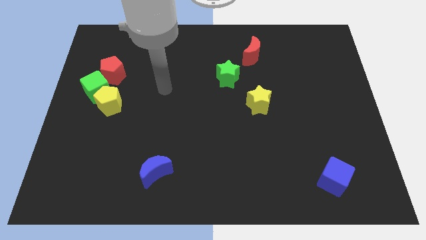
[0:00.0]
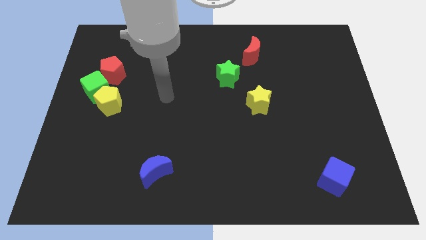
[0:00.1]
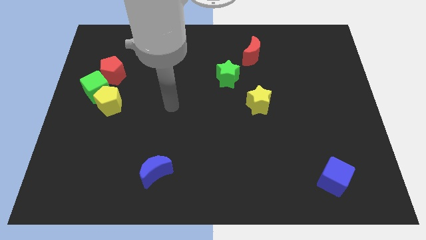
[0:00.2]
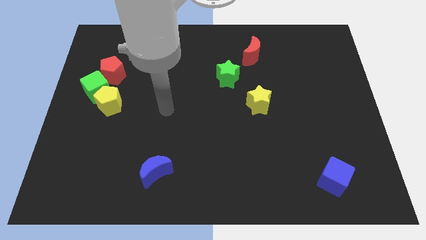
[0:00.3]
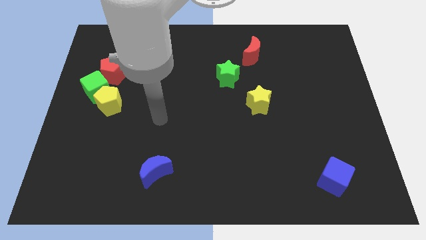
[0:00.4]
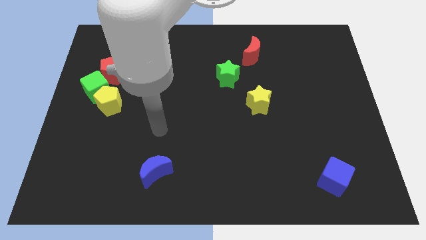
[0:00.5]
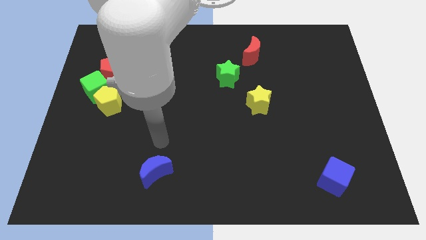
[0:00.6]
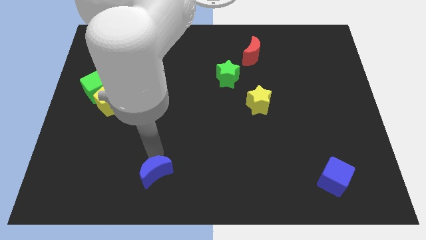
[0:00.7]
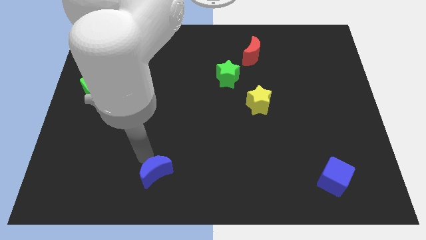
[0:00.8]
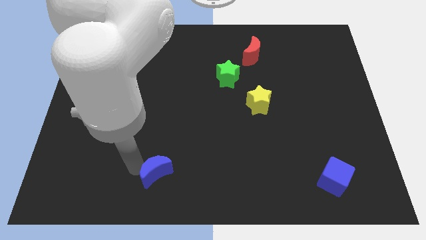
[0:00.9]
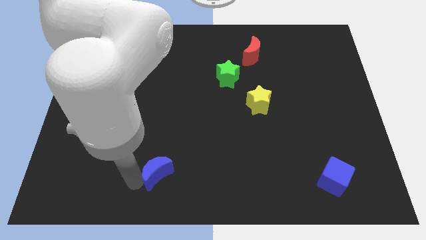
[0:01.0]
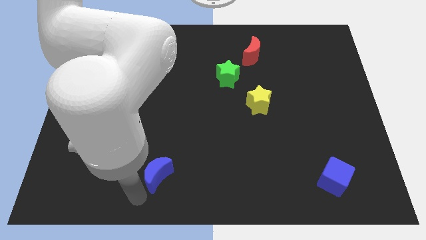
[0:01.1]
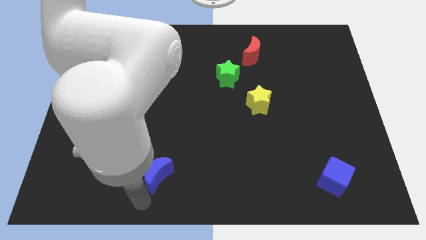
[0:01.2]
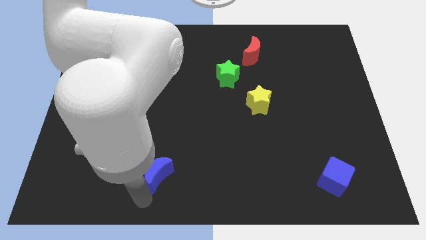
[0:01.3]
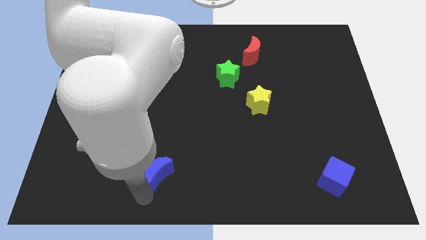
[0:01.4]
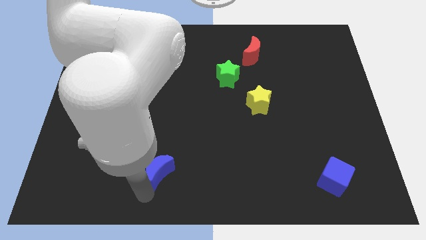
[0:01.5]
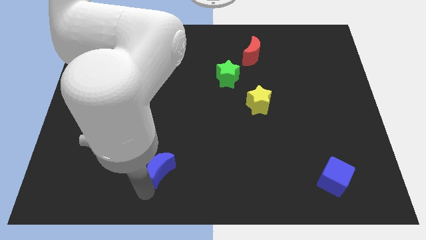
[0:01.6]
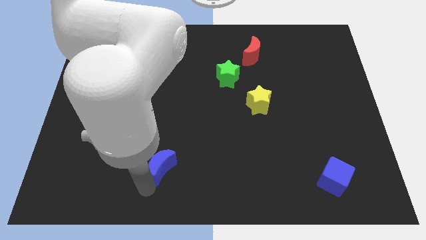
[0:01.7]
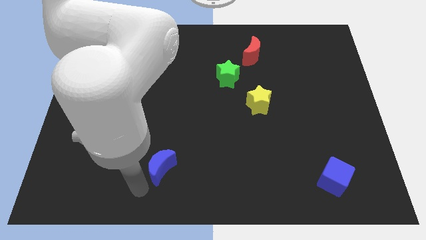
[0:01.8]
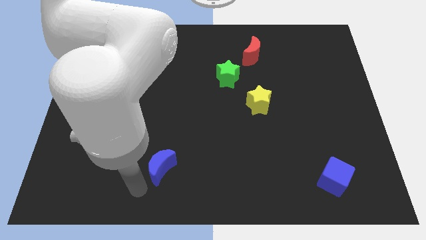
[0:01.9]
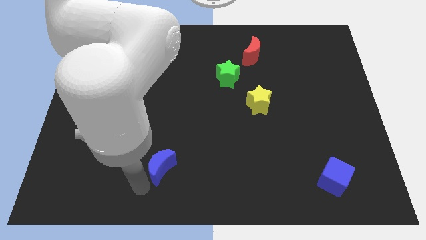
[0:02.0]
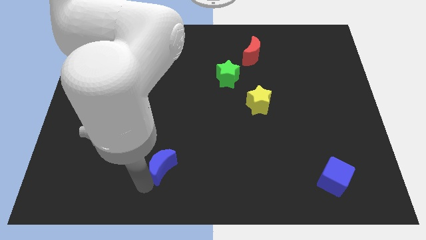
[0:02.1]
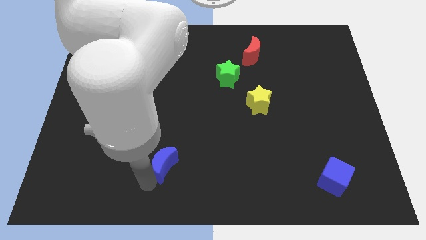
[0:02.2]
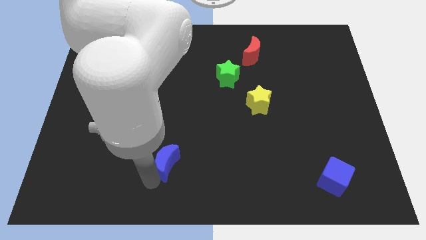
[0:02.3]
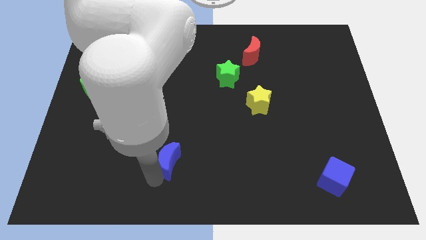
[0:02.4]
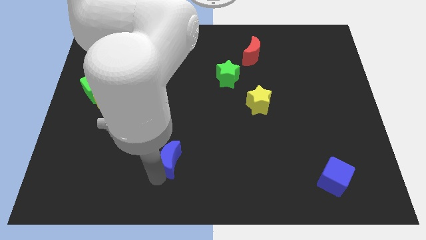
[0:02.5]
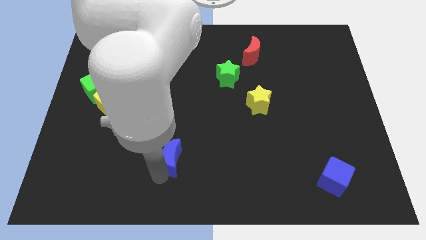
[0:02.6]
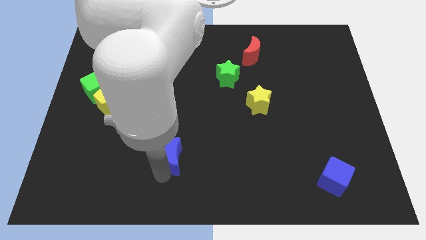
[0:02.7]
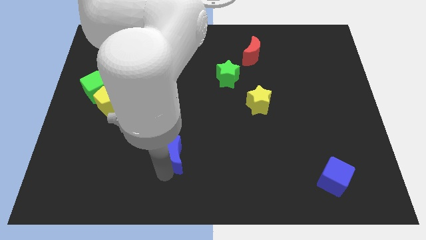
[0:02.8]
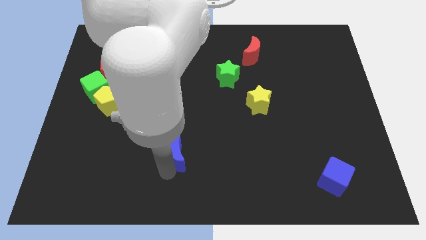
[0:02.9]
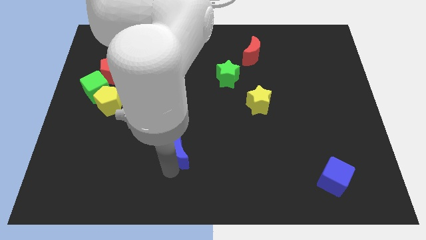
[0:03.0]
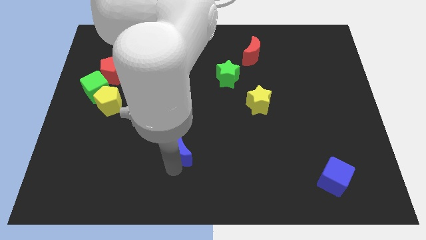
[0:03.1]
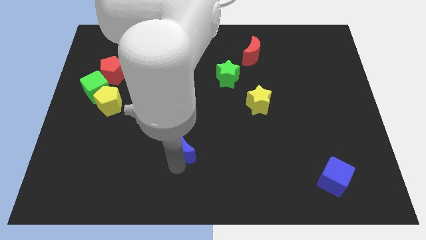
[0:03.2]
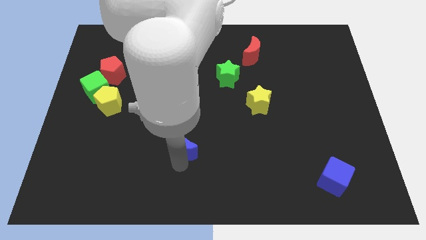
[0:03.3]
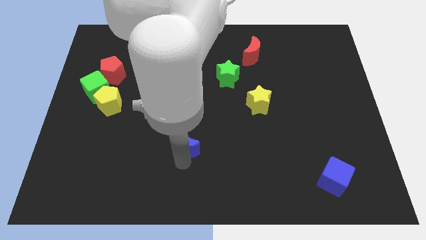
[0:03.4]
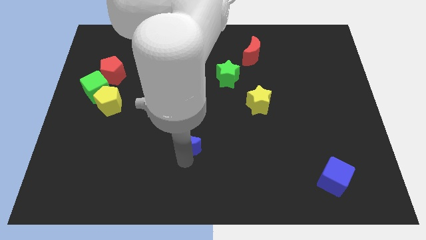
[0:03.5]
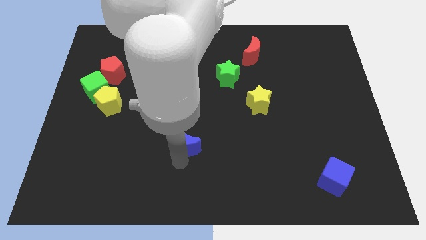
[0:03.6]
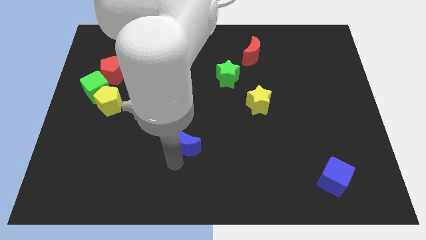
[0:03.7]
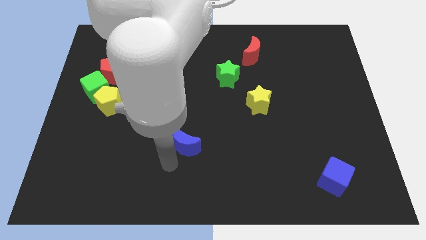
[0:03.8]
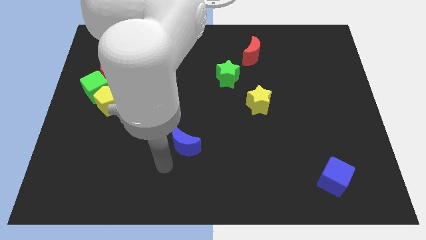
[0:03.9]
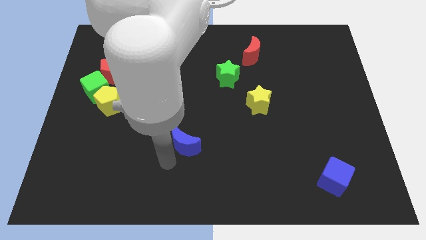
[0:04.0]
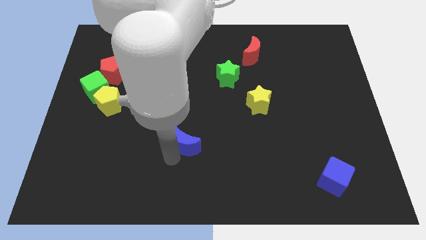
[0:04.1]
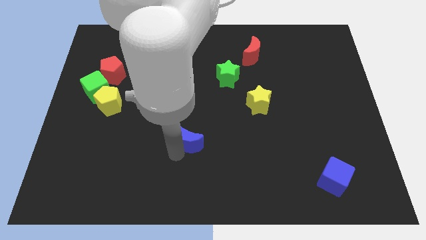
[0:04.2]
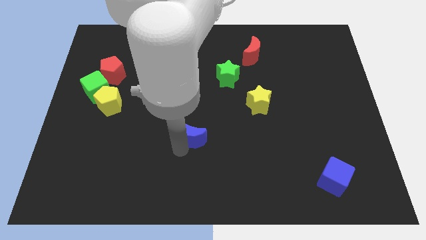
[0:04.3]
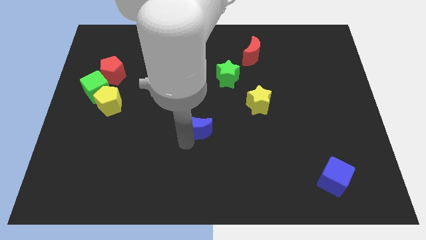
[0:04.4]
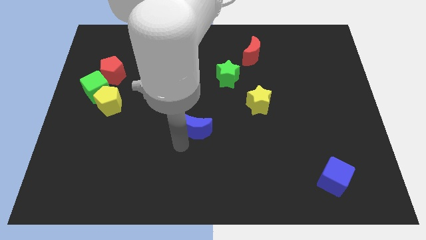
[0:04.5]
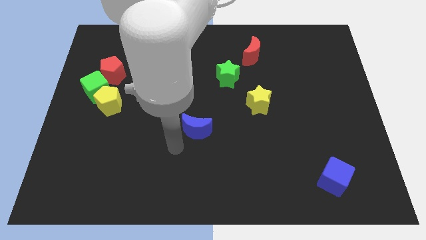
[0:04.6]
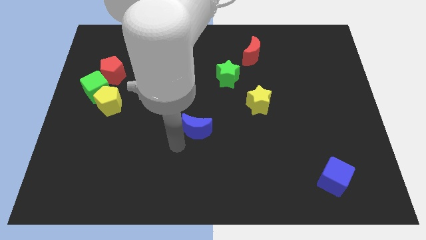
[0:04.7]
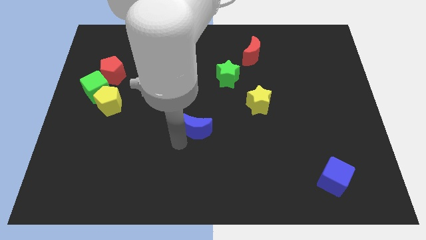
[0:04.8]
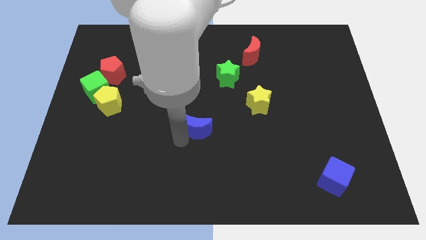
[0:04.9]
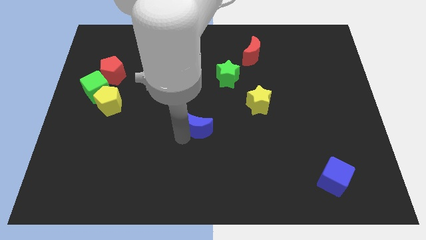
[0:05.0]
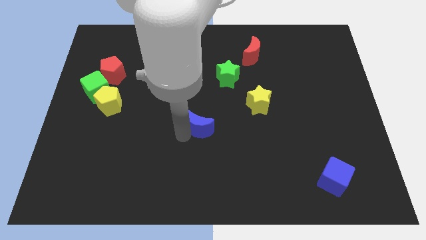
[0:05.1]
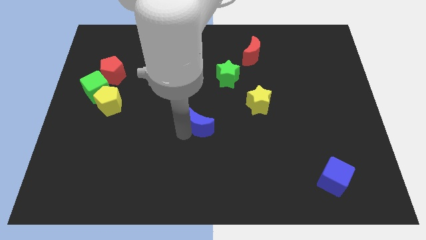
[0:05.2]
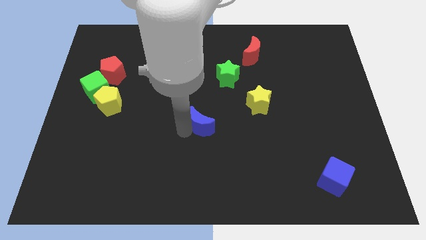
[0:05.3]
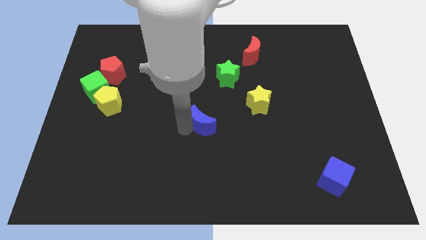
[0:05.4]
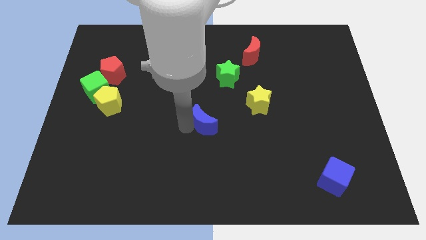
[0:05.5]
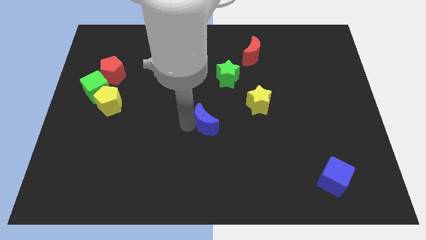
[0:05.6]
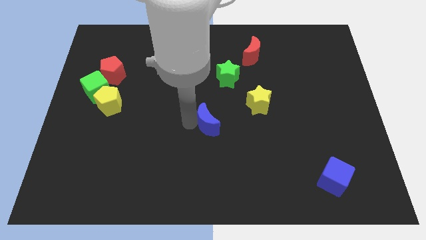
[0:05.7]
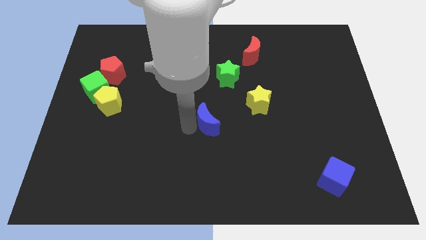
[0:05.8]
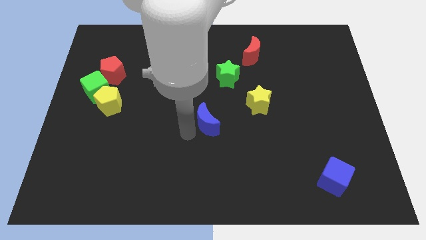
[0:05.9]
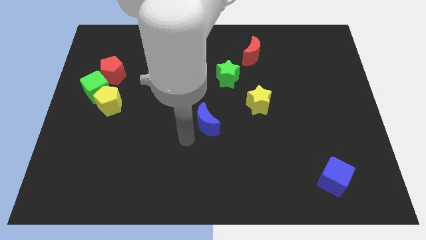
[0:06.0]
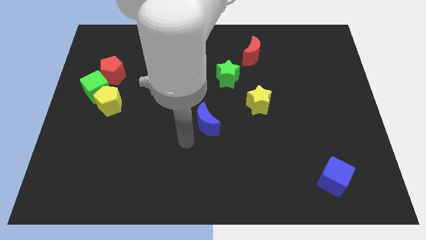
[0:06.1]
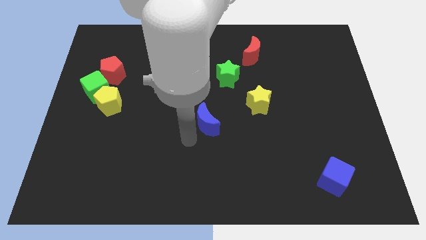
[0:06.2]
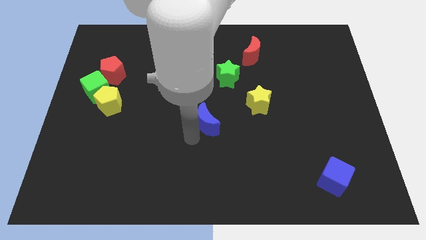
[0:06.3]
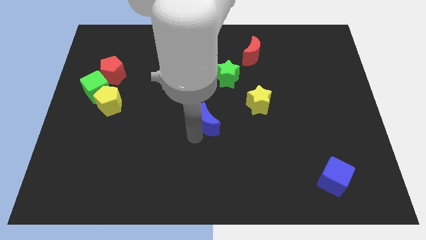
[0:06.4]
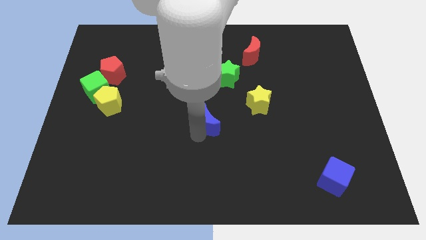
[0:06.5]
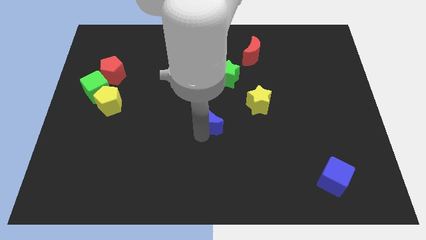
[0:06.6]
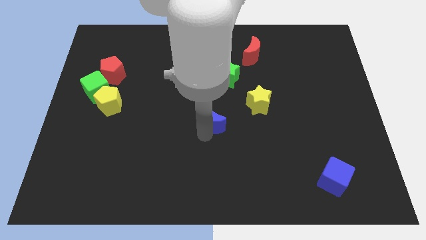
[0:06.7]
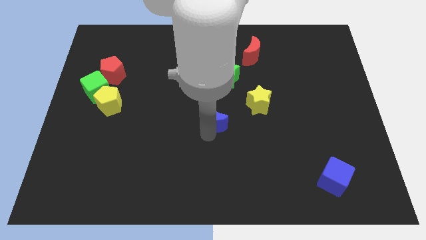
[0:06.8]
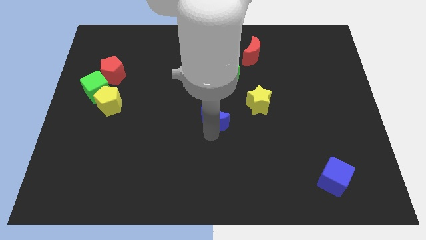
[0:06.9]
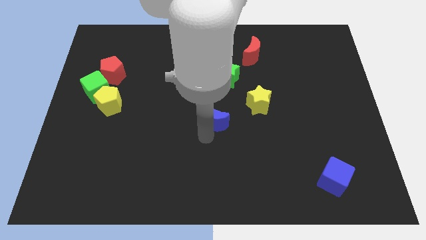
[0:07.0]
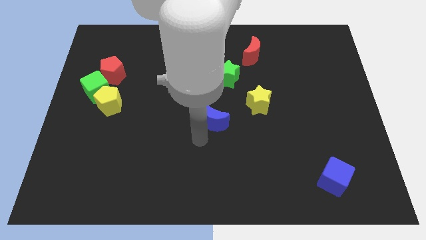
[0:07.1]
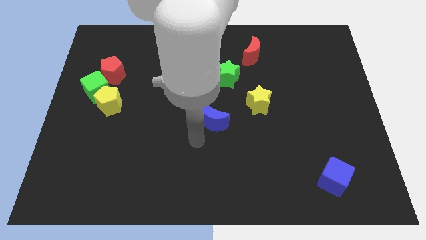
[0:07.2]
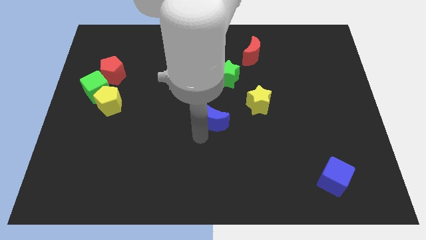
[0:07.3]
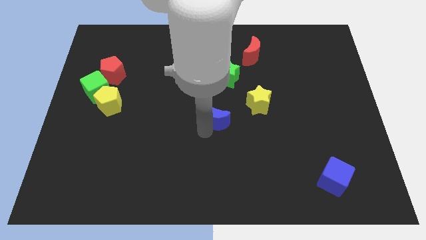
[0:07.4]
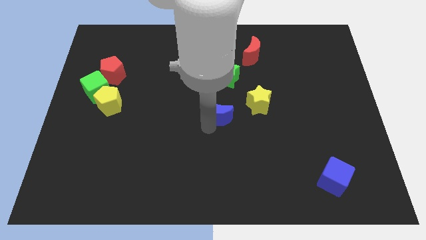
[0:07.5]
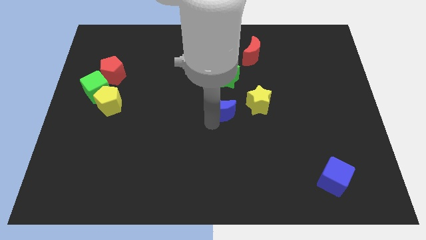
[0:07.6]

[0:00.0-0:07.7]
slide the blue moon up and then to the right

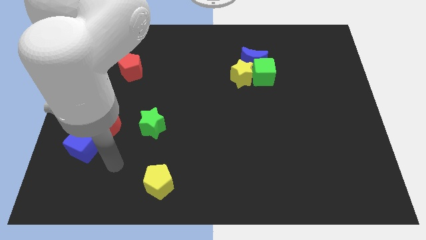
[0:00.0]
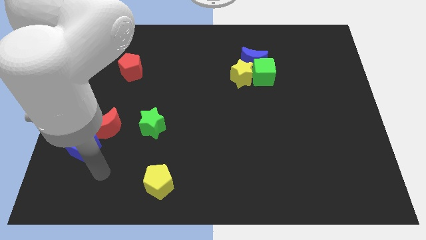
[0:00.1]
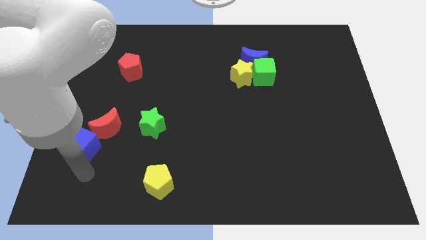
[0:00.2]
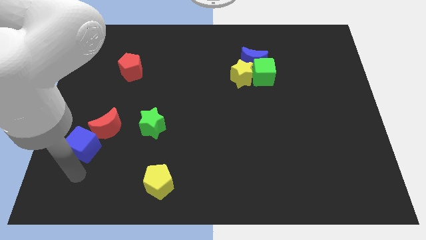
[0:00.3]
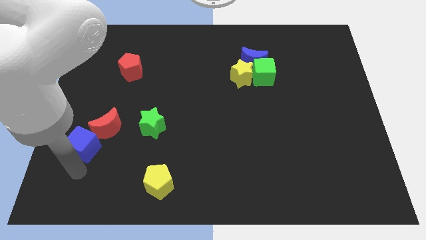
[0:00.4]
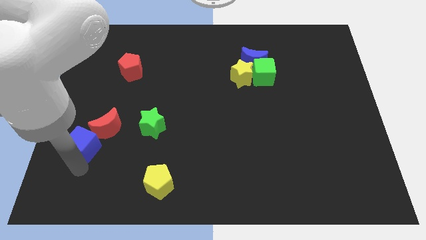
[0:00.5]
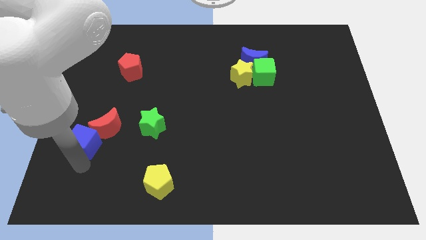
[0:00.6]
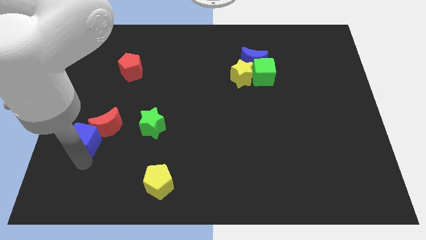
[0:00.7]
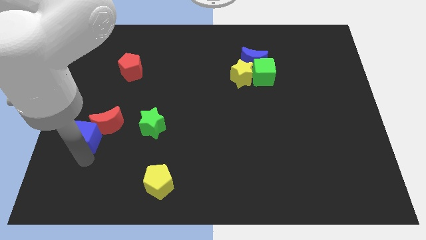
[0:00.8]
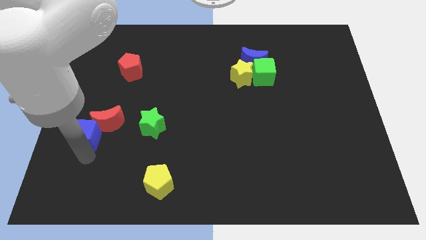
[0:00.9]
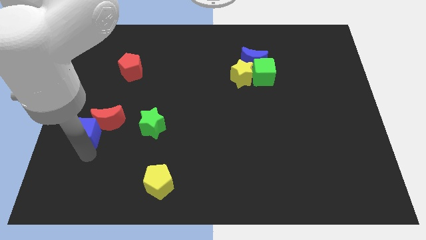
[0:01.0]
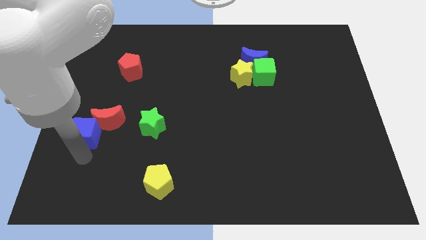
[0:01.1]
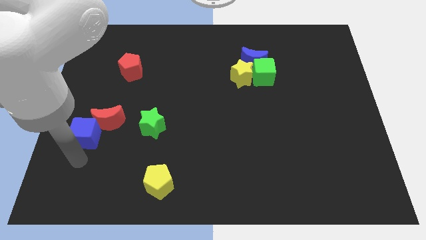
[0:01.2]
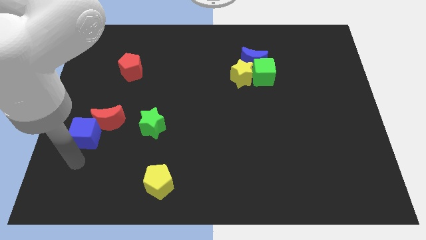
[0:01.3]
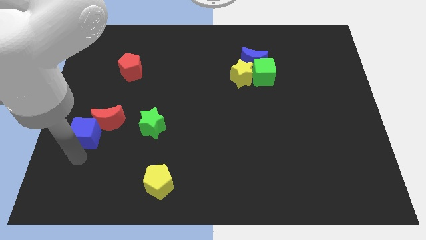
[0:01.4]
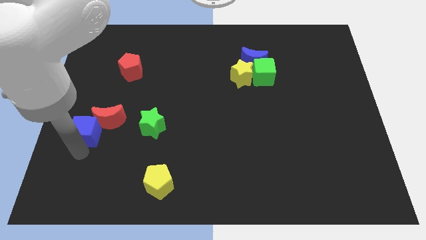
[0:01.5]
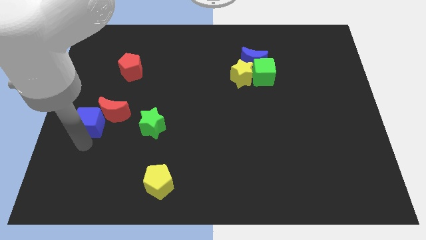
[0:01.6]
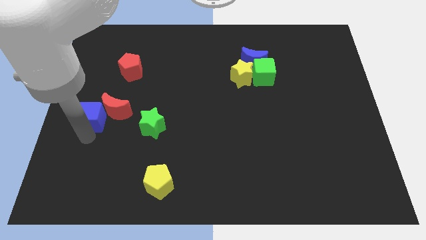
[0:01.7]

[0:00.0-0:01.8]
slightly slide the blue cube up
